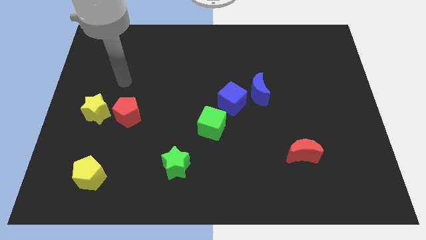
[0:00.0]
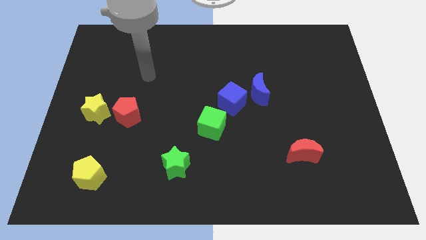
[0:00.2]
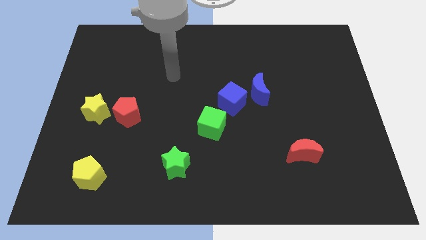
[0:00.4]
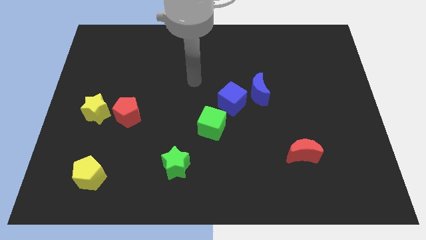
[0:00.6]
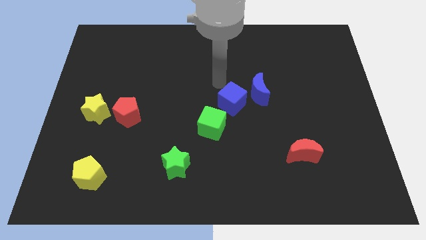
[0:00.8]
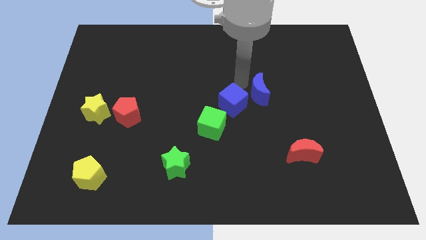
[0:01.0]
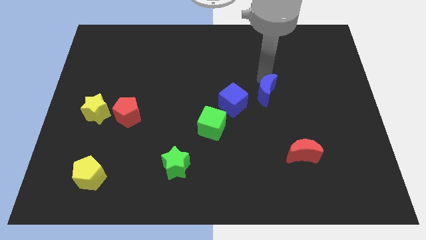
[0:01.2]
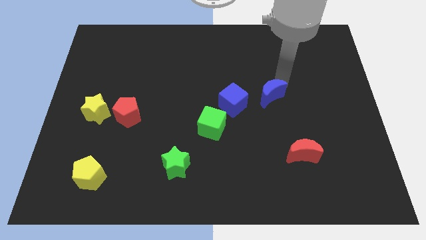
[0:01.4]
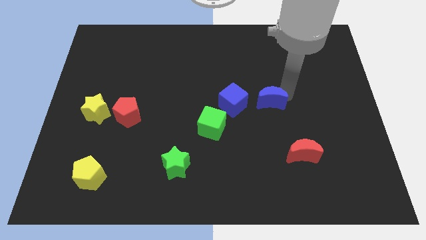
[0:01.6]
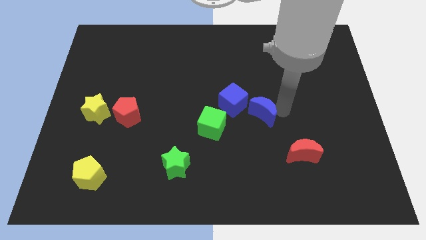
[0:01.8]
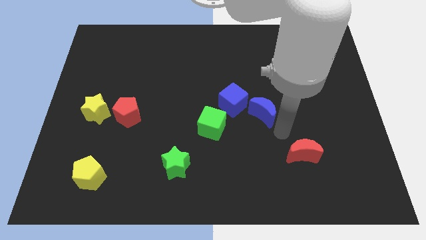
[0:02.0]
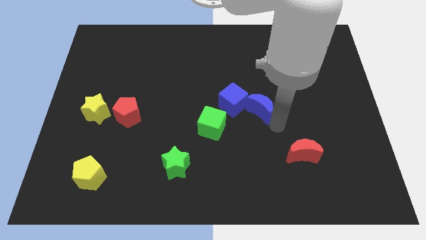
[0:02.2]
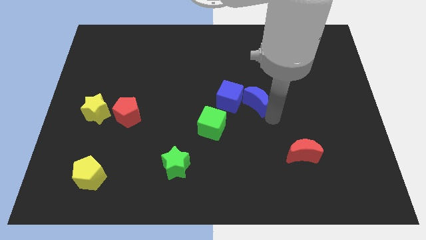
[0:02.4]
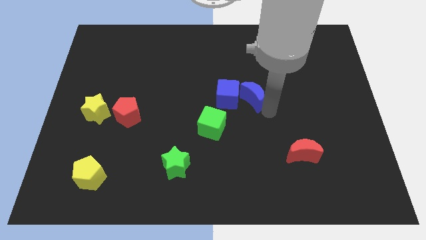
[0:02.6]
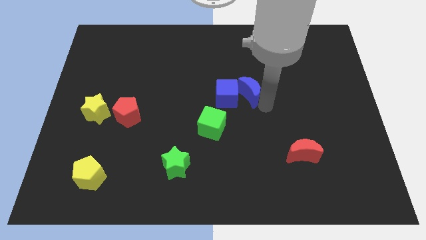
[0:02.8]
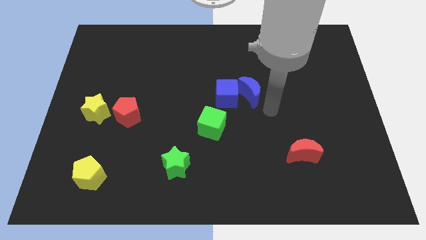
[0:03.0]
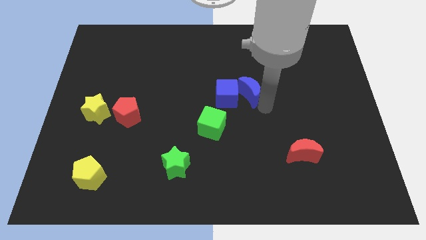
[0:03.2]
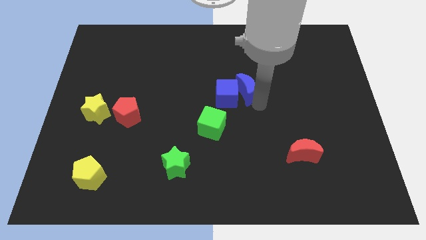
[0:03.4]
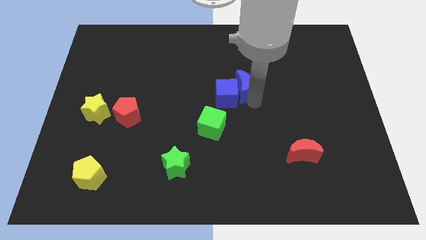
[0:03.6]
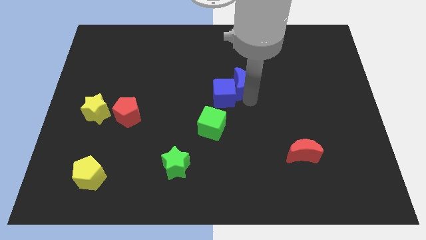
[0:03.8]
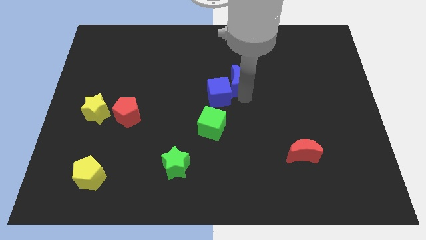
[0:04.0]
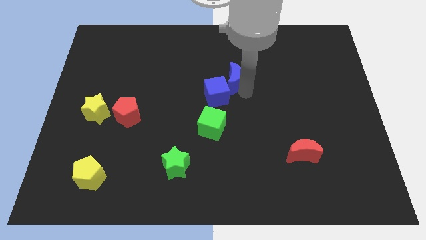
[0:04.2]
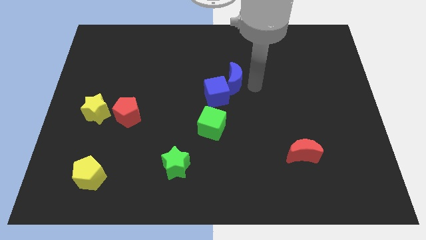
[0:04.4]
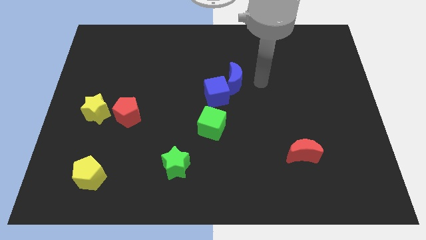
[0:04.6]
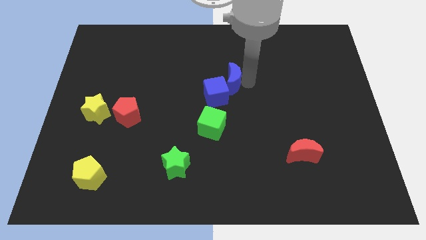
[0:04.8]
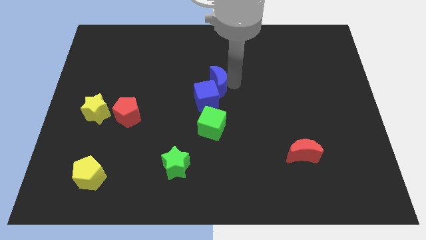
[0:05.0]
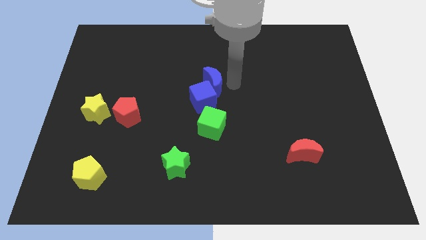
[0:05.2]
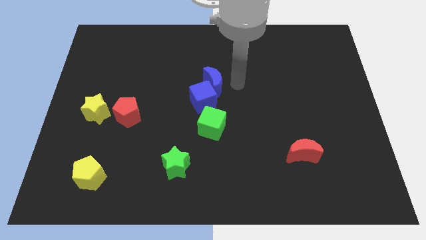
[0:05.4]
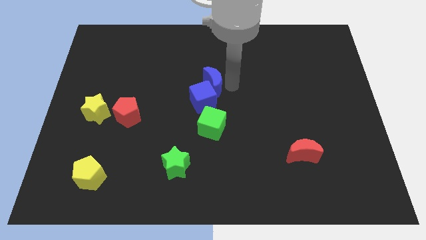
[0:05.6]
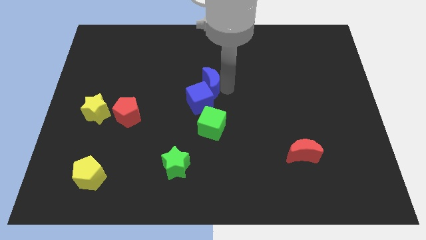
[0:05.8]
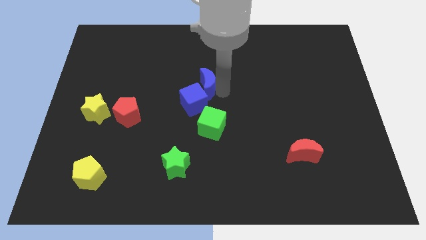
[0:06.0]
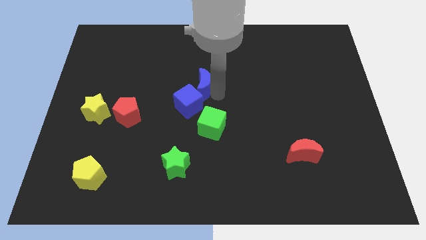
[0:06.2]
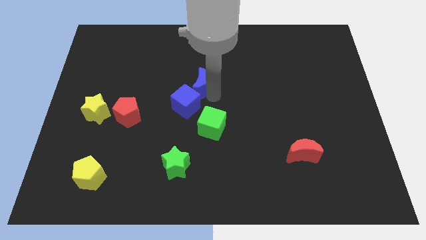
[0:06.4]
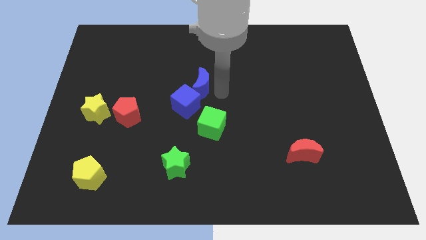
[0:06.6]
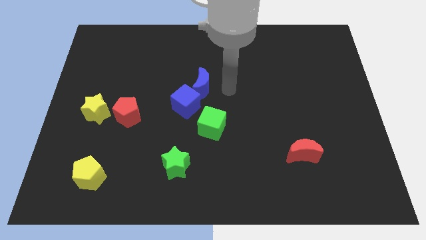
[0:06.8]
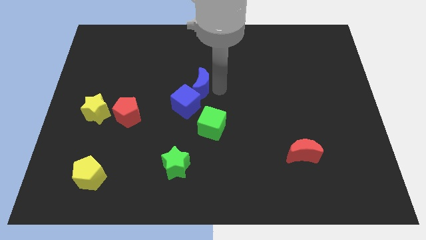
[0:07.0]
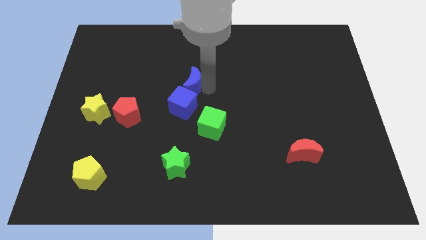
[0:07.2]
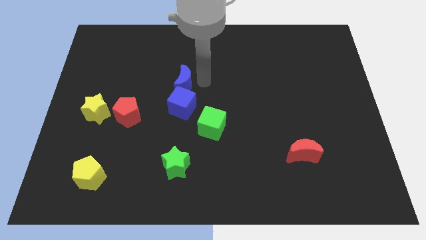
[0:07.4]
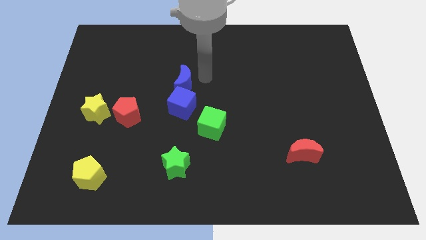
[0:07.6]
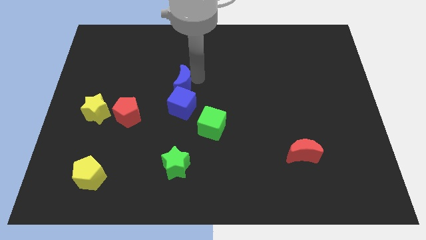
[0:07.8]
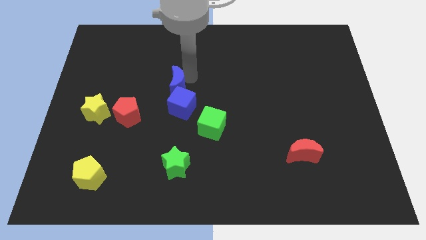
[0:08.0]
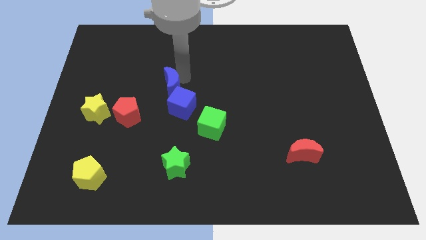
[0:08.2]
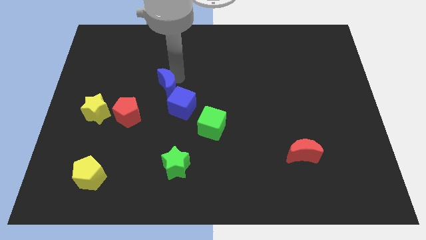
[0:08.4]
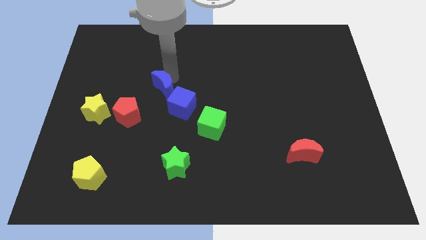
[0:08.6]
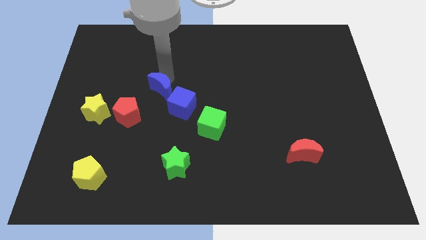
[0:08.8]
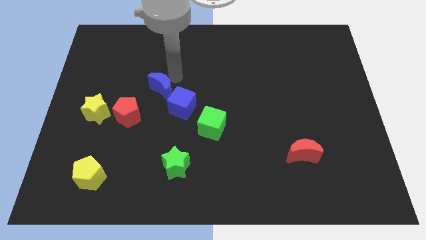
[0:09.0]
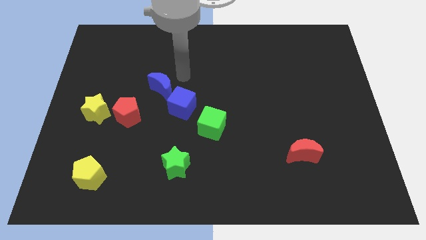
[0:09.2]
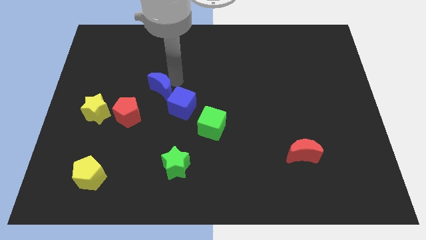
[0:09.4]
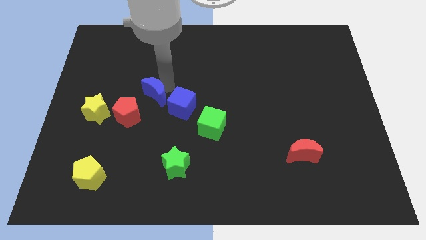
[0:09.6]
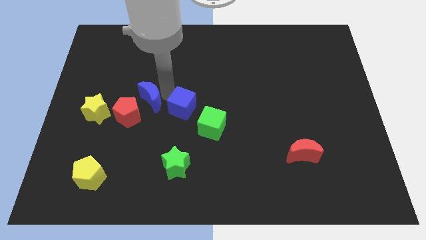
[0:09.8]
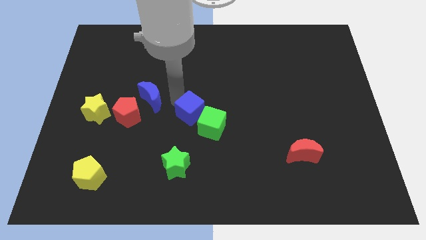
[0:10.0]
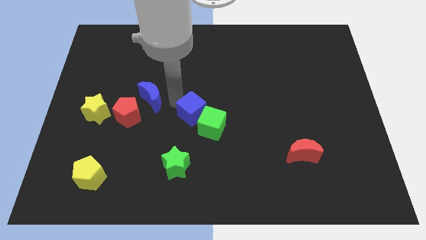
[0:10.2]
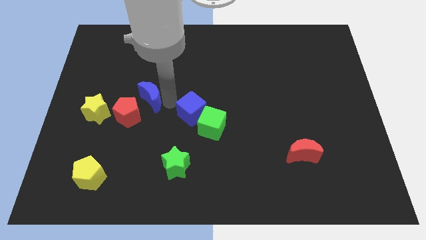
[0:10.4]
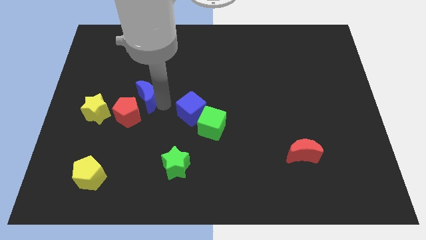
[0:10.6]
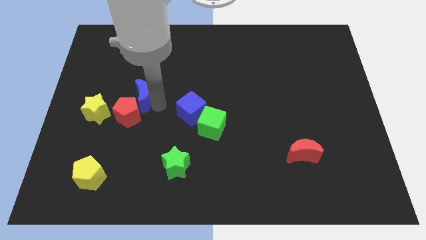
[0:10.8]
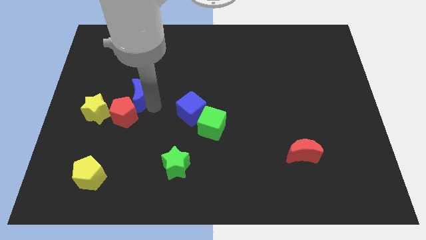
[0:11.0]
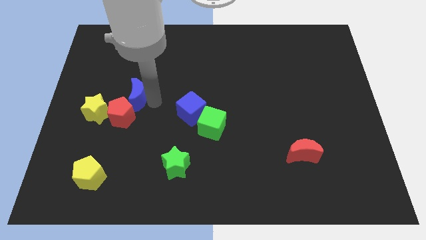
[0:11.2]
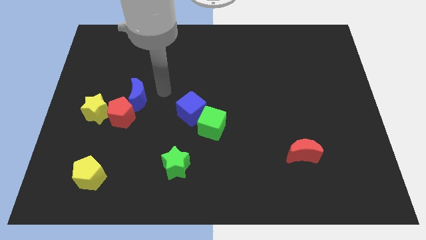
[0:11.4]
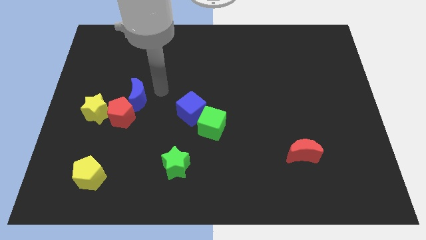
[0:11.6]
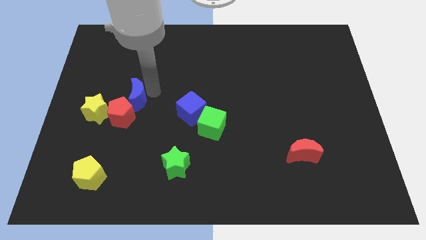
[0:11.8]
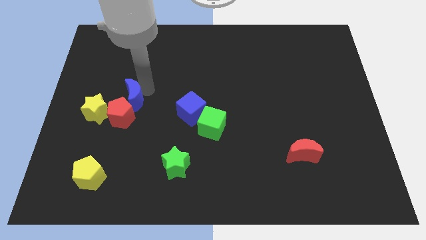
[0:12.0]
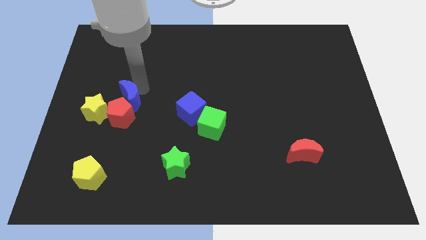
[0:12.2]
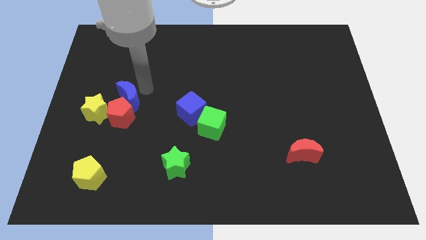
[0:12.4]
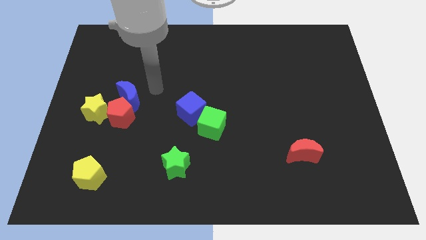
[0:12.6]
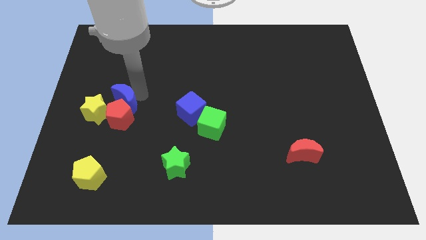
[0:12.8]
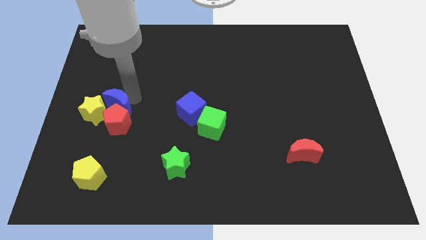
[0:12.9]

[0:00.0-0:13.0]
slide the blue moon close to the yellow star

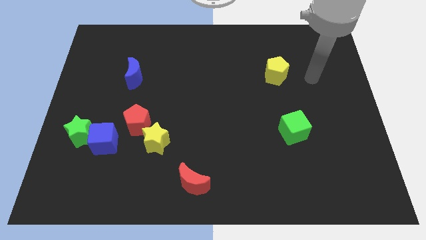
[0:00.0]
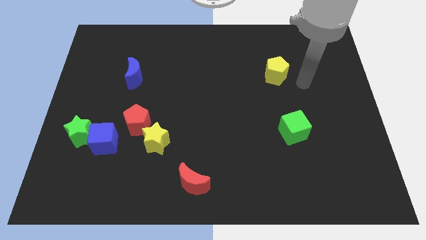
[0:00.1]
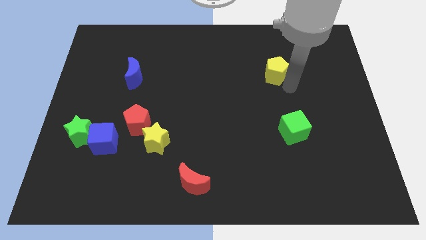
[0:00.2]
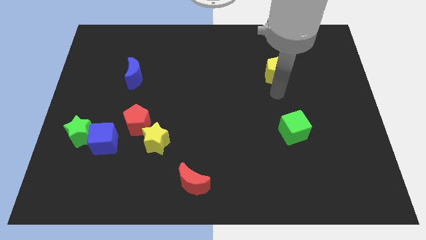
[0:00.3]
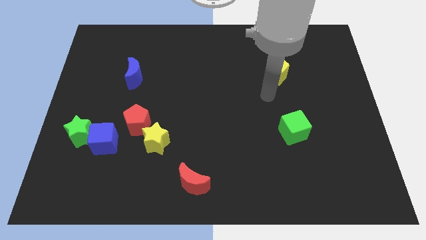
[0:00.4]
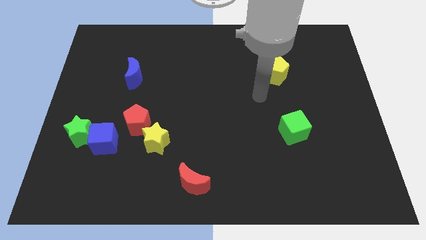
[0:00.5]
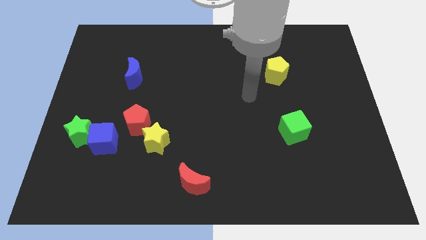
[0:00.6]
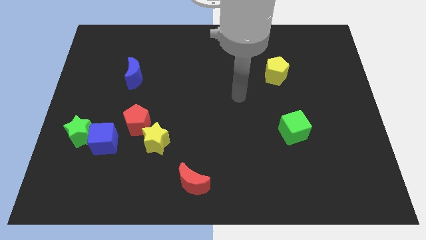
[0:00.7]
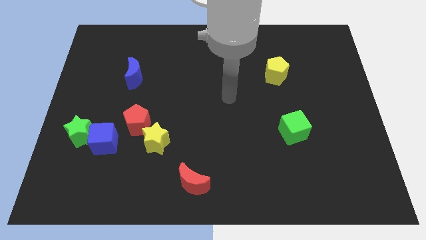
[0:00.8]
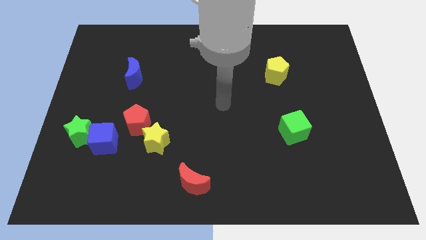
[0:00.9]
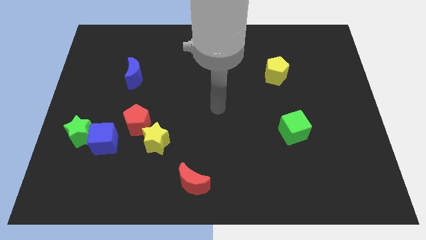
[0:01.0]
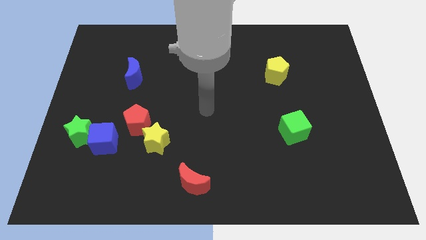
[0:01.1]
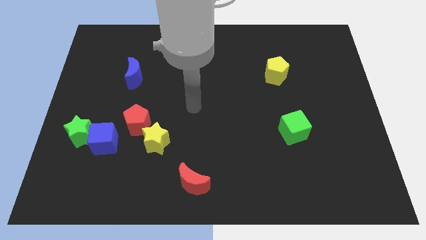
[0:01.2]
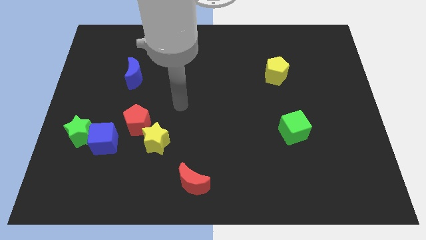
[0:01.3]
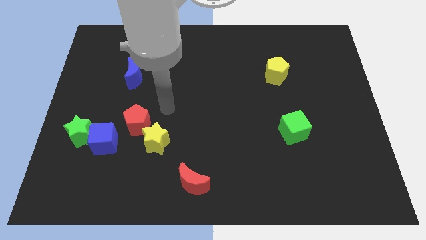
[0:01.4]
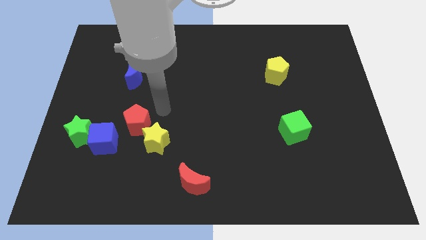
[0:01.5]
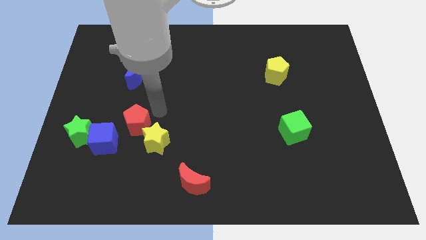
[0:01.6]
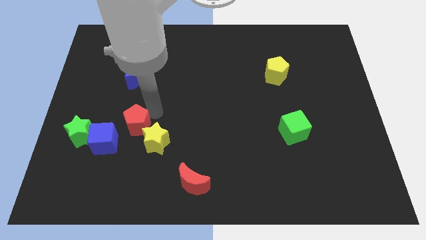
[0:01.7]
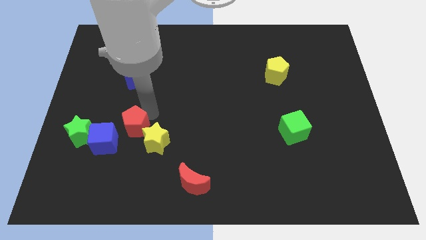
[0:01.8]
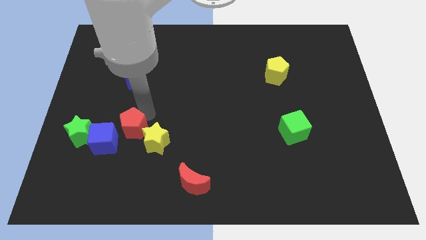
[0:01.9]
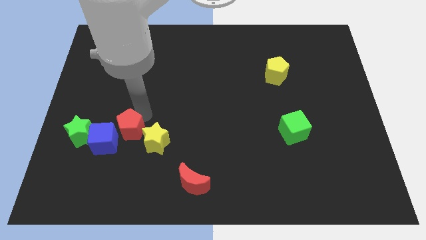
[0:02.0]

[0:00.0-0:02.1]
slide the red pentagon close to the blue cube
